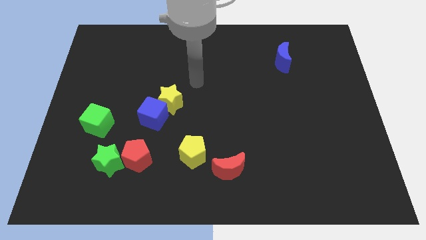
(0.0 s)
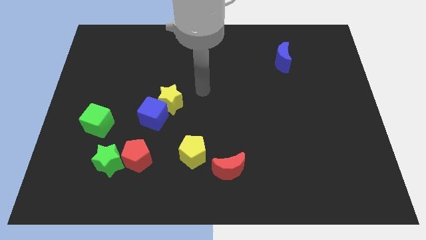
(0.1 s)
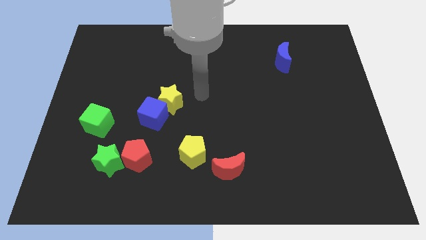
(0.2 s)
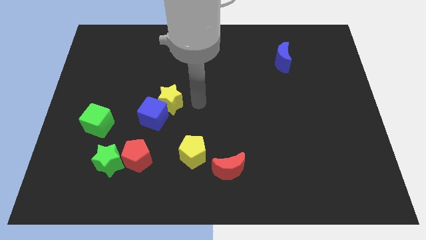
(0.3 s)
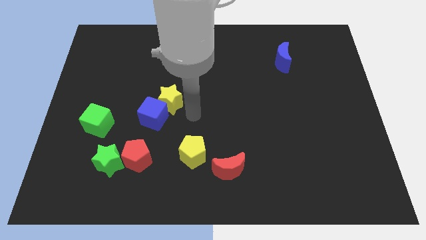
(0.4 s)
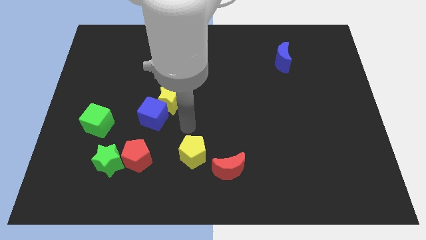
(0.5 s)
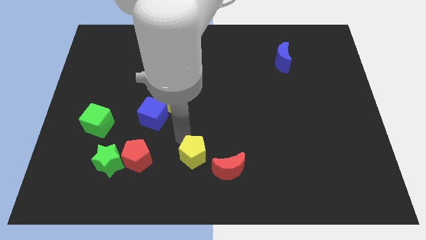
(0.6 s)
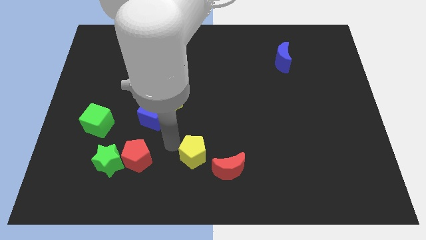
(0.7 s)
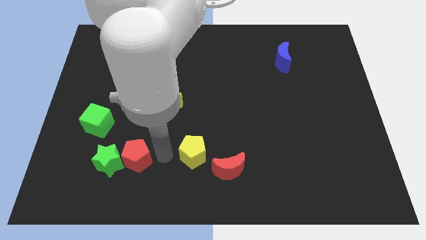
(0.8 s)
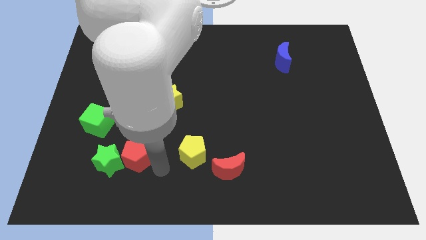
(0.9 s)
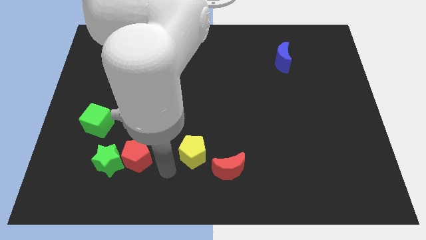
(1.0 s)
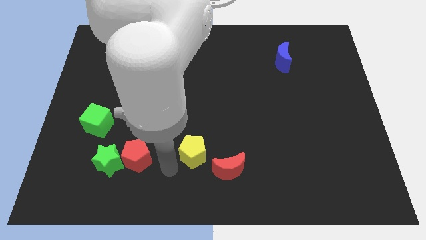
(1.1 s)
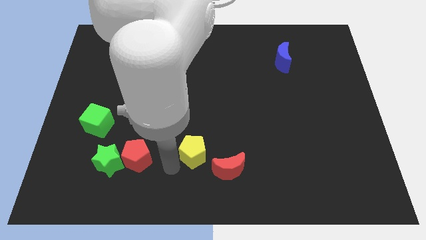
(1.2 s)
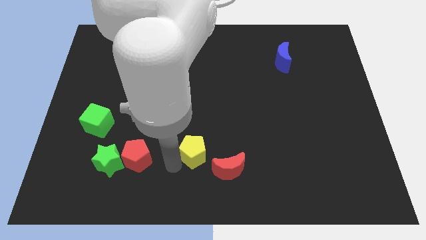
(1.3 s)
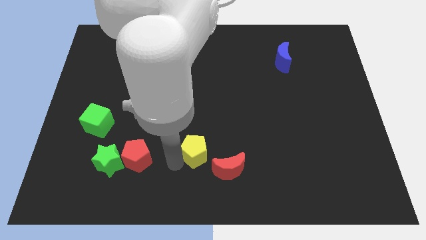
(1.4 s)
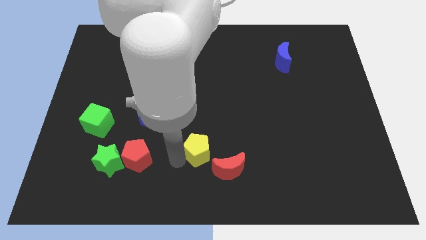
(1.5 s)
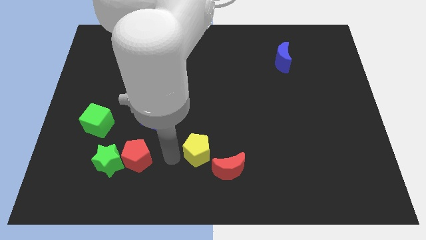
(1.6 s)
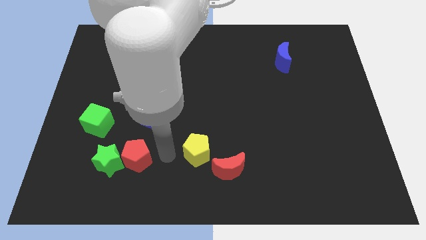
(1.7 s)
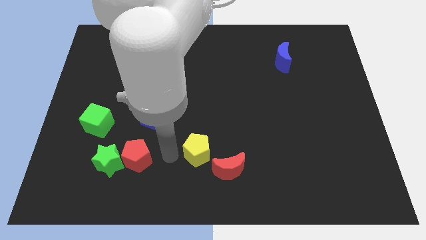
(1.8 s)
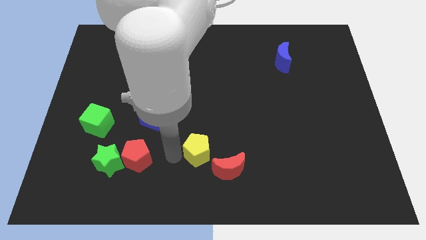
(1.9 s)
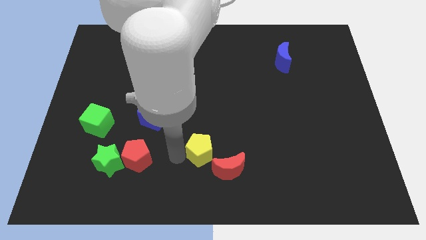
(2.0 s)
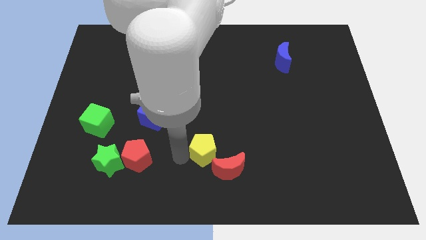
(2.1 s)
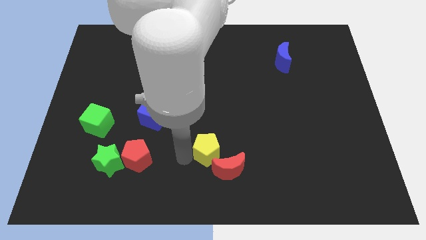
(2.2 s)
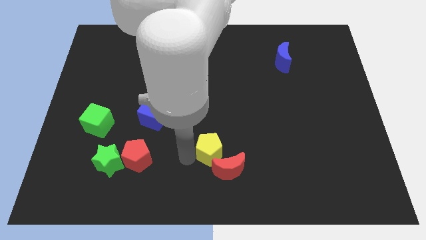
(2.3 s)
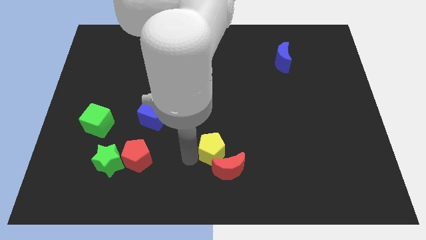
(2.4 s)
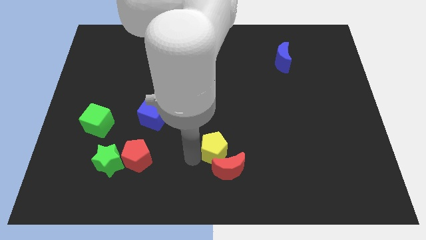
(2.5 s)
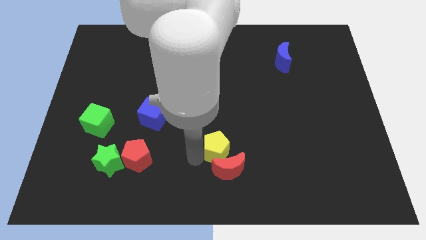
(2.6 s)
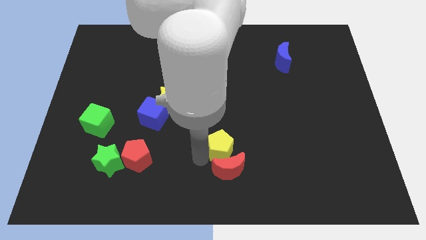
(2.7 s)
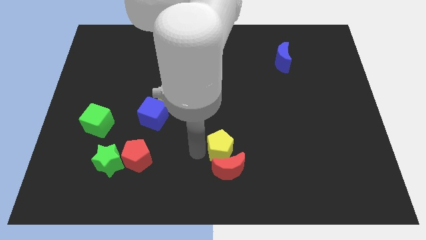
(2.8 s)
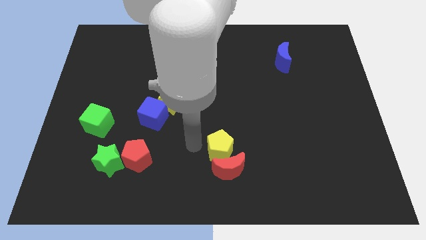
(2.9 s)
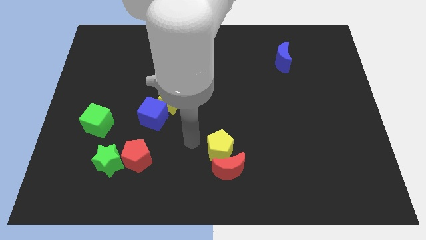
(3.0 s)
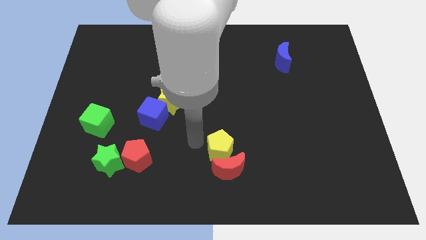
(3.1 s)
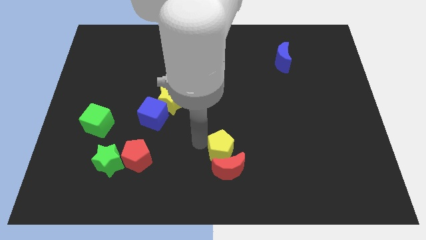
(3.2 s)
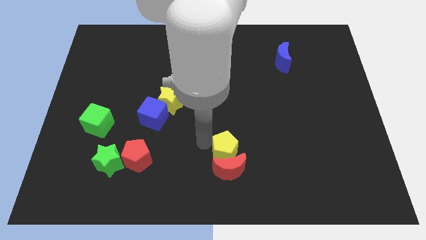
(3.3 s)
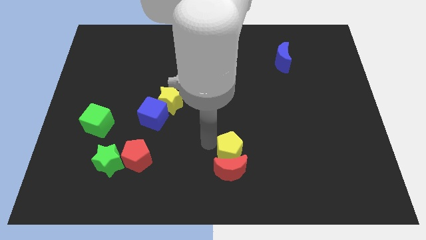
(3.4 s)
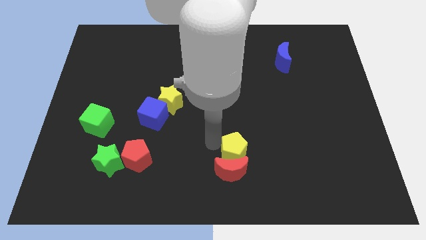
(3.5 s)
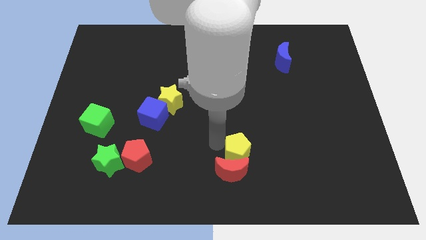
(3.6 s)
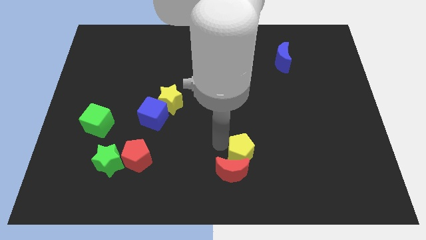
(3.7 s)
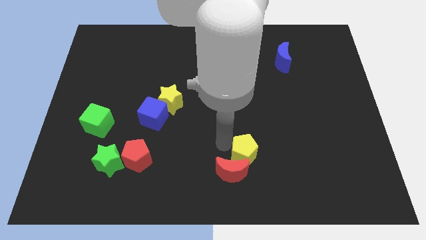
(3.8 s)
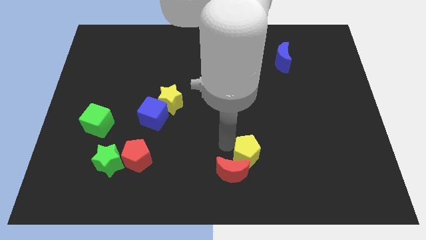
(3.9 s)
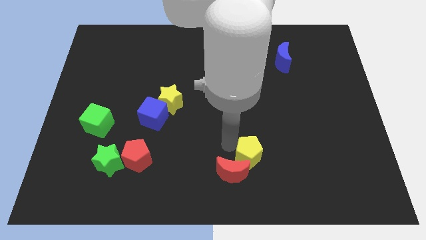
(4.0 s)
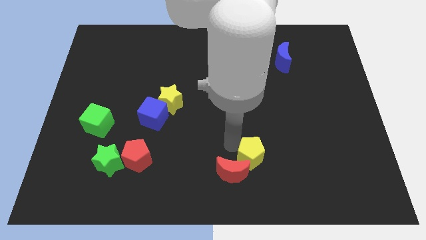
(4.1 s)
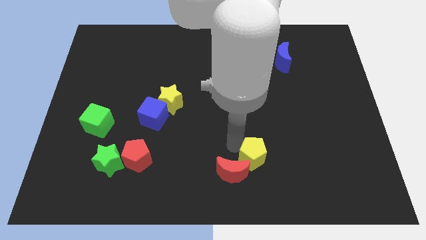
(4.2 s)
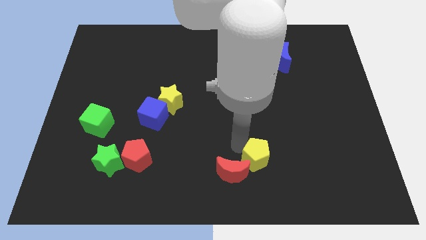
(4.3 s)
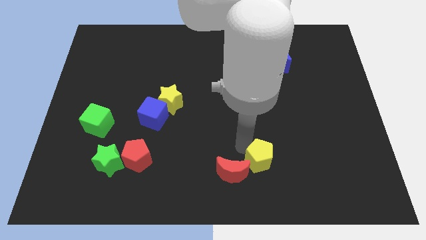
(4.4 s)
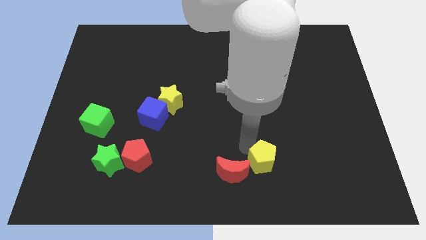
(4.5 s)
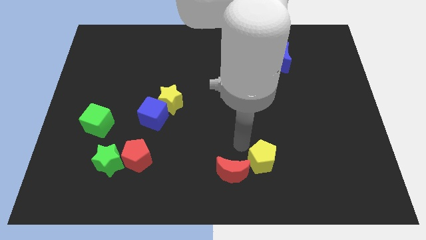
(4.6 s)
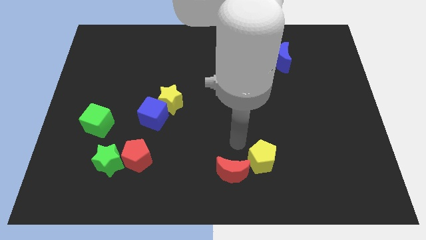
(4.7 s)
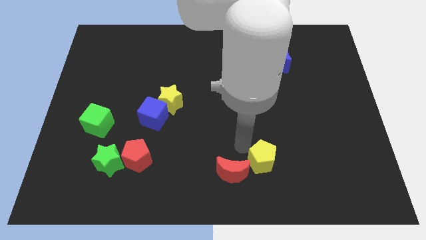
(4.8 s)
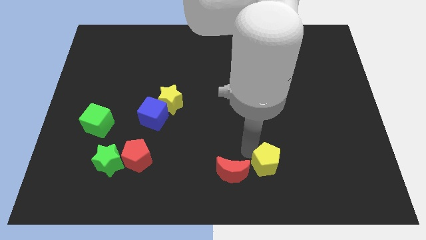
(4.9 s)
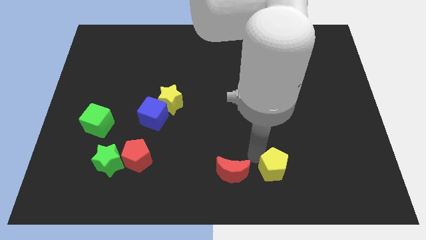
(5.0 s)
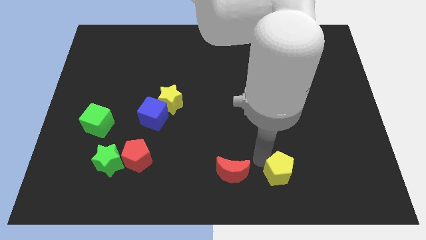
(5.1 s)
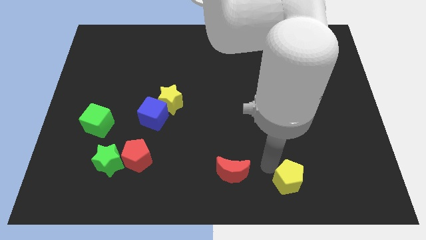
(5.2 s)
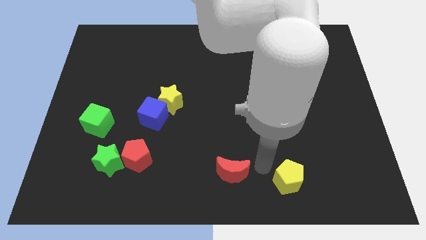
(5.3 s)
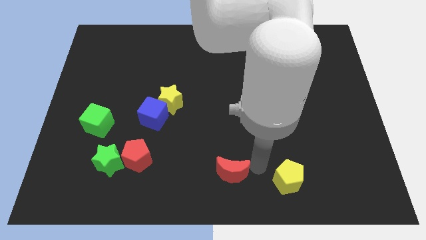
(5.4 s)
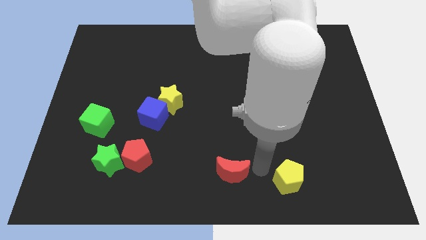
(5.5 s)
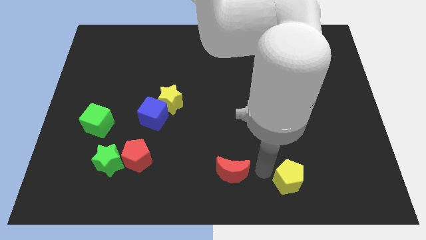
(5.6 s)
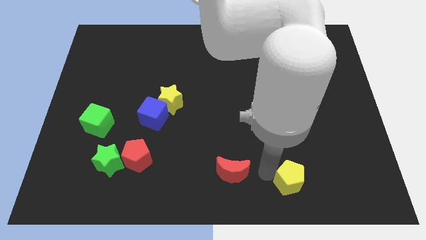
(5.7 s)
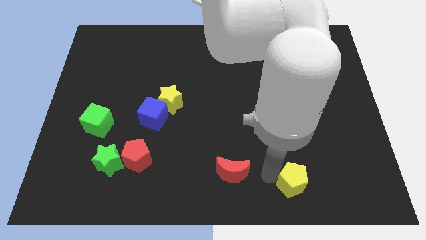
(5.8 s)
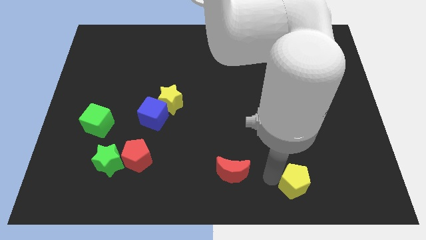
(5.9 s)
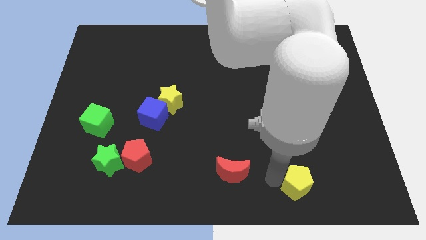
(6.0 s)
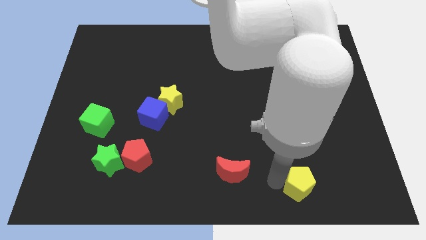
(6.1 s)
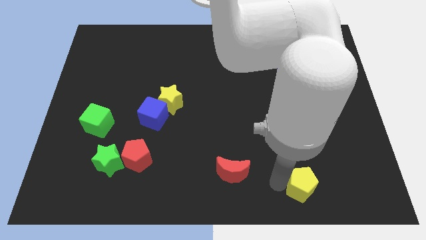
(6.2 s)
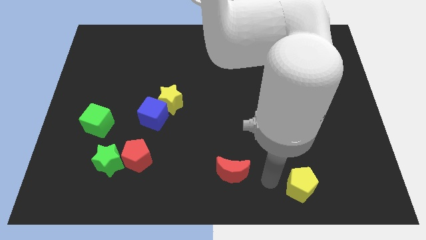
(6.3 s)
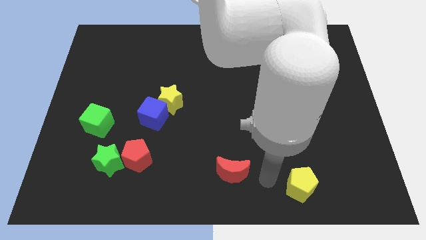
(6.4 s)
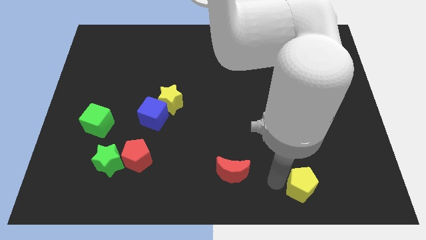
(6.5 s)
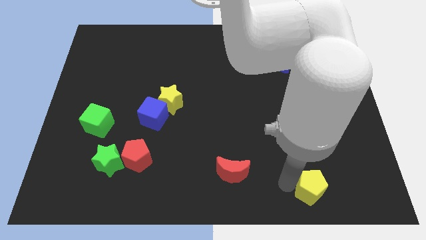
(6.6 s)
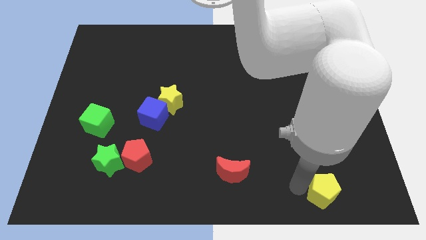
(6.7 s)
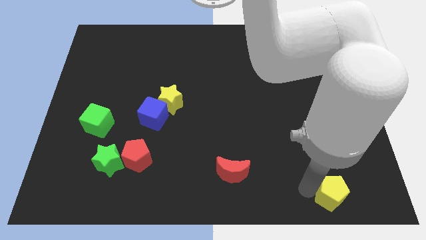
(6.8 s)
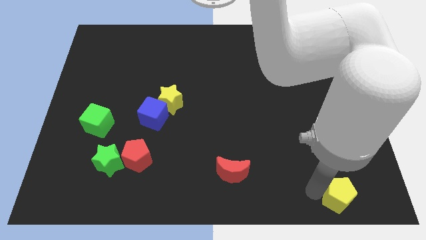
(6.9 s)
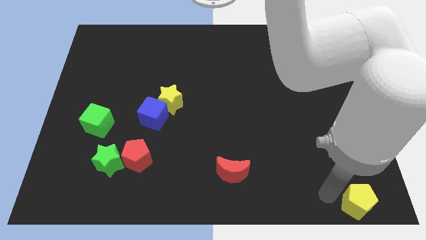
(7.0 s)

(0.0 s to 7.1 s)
push the yellow pentagon to the bottom right corner

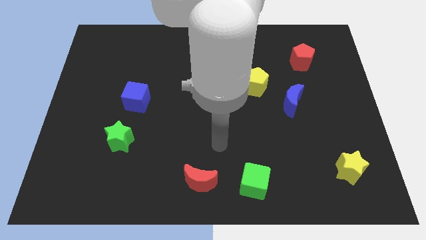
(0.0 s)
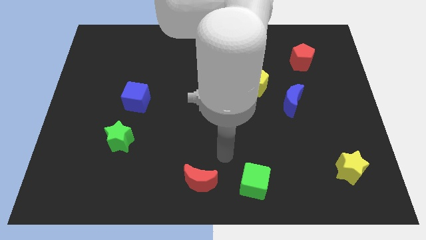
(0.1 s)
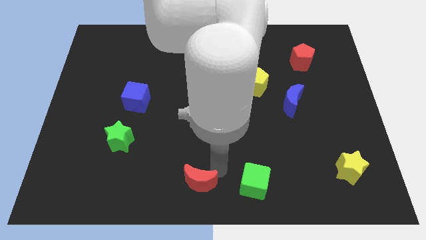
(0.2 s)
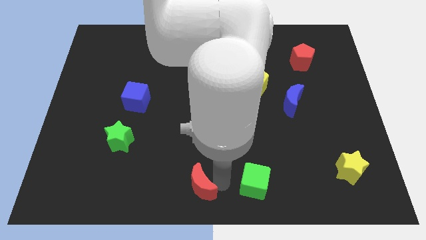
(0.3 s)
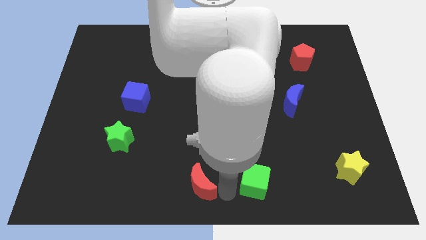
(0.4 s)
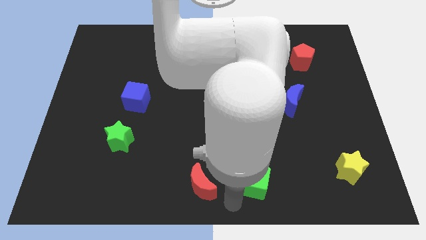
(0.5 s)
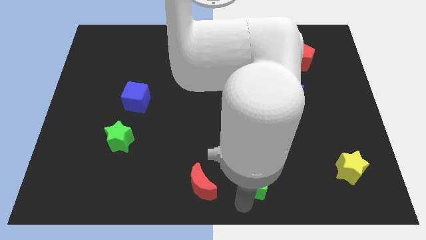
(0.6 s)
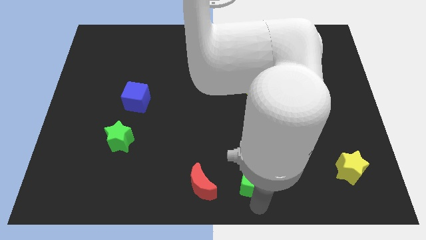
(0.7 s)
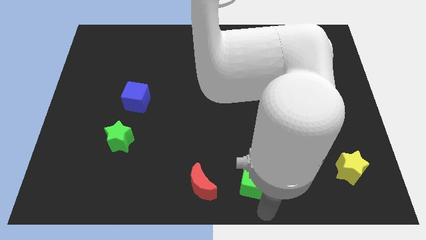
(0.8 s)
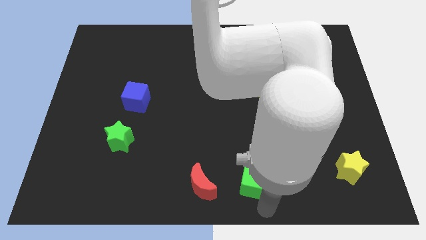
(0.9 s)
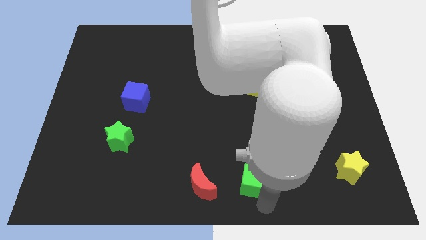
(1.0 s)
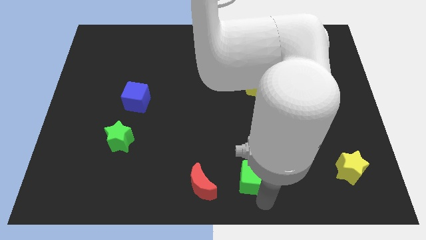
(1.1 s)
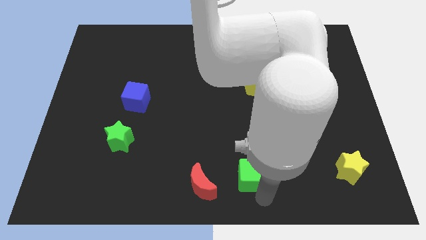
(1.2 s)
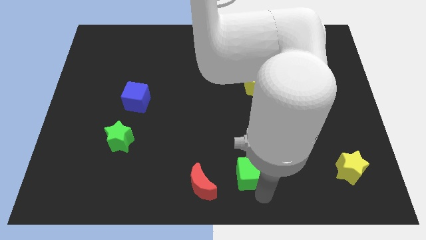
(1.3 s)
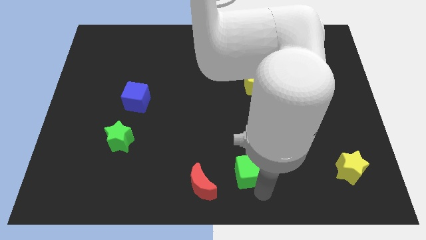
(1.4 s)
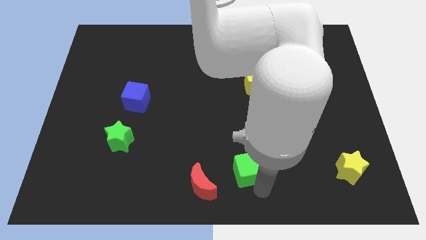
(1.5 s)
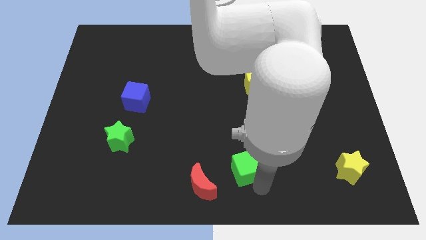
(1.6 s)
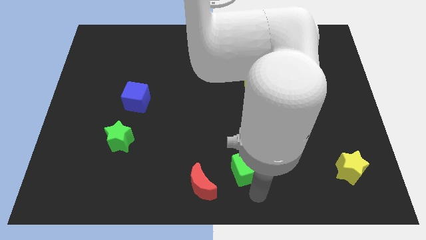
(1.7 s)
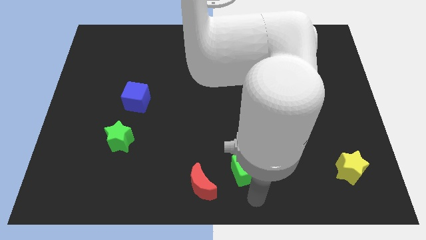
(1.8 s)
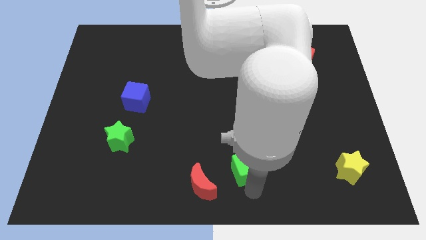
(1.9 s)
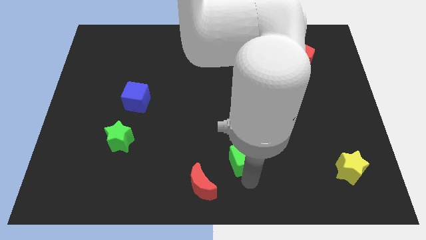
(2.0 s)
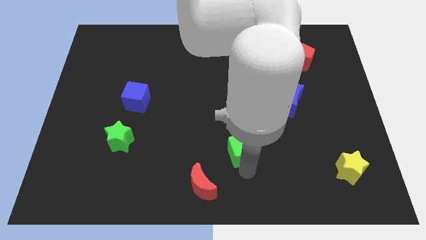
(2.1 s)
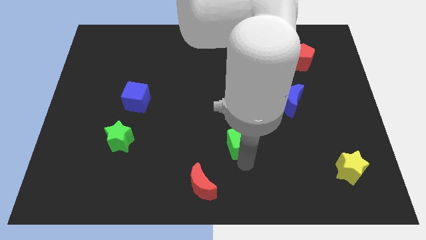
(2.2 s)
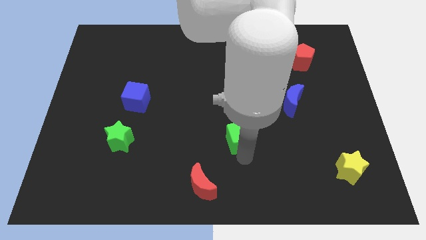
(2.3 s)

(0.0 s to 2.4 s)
slide the green cube to the center of the board
